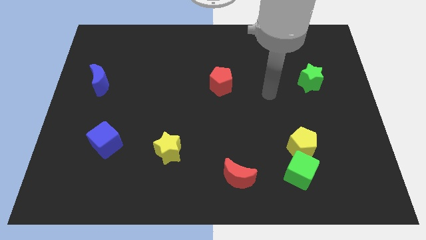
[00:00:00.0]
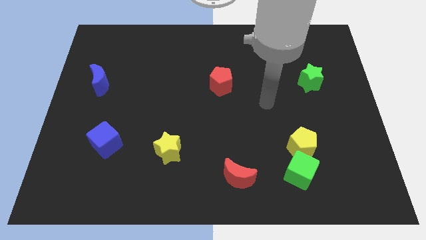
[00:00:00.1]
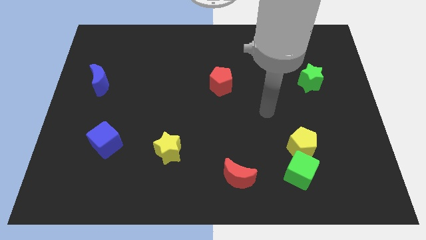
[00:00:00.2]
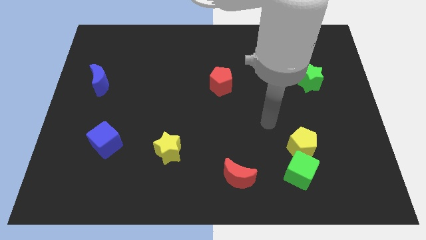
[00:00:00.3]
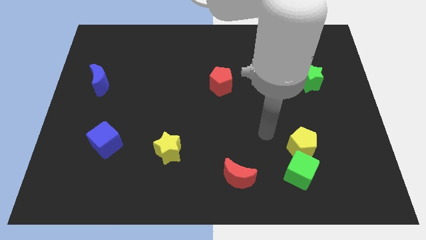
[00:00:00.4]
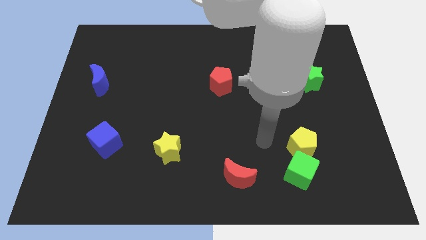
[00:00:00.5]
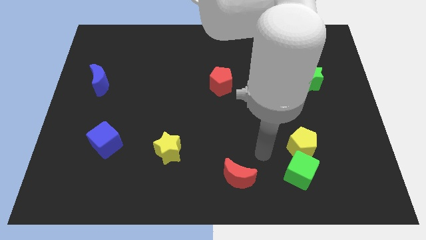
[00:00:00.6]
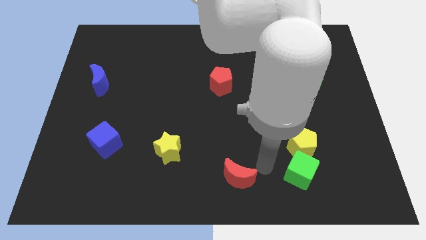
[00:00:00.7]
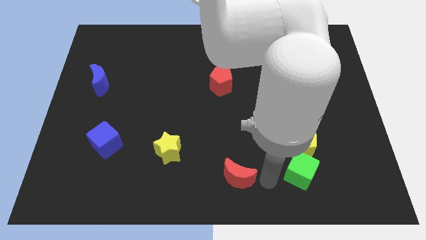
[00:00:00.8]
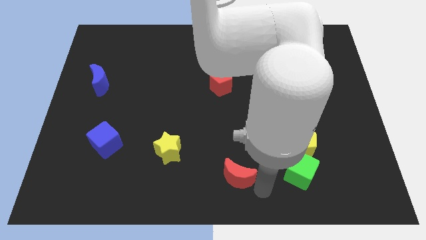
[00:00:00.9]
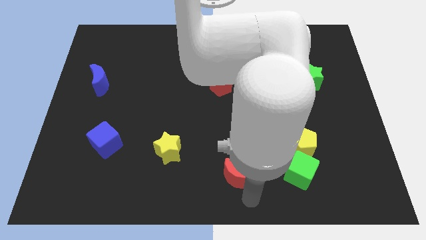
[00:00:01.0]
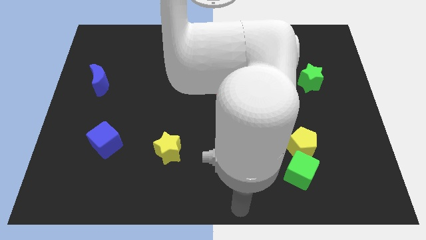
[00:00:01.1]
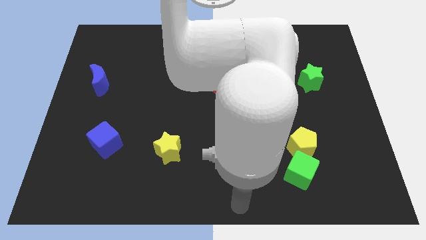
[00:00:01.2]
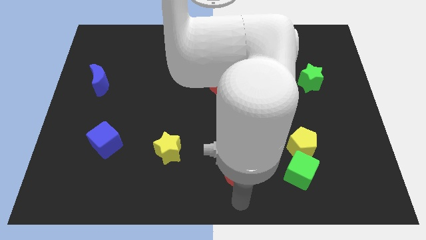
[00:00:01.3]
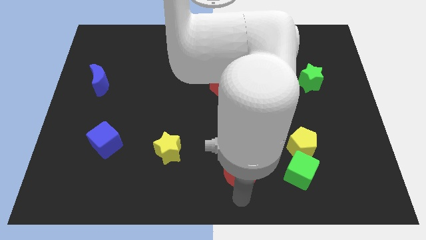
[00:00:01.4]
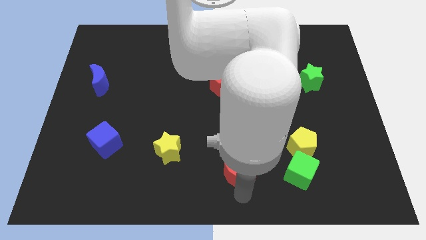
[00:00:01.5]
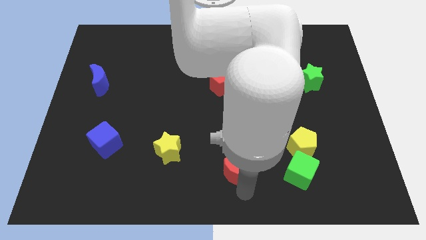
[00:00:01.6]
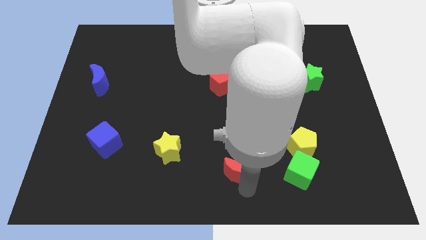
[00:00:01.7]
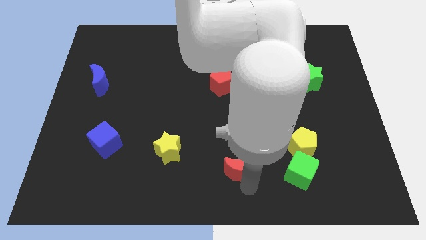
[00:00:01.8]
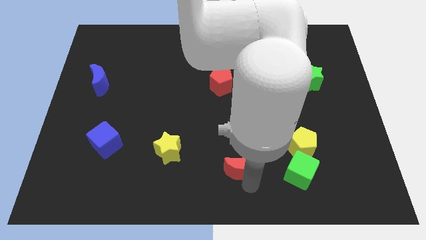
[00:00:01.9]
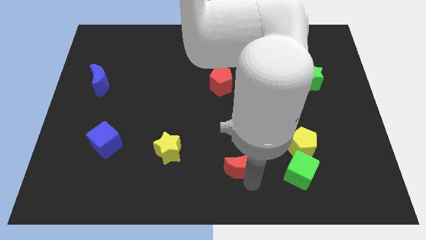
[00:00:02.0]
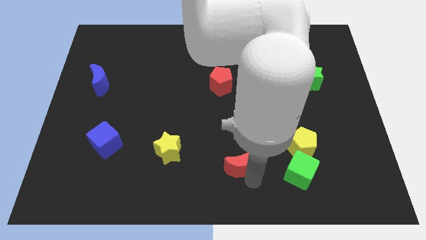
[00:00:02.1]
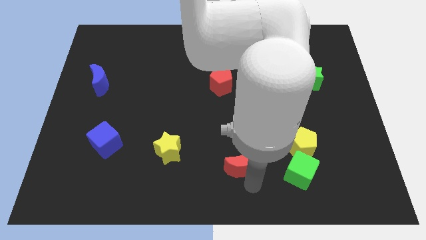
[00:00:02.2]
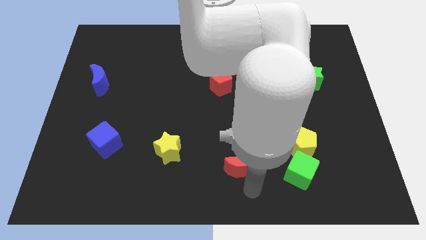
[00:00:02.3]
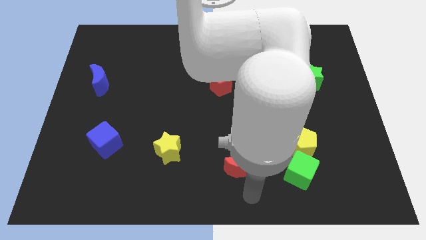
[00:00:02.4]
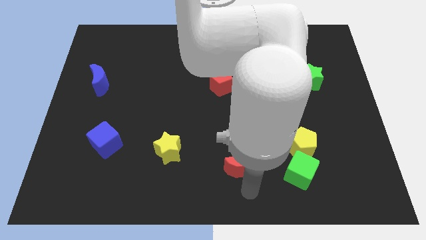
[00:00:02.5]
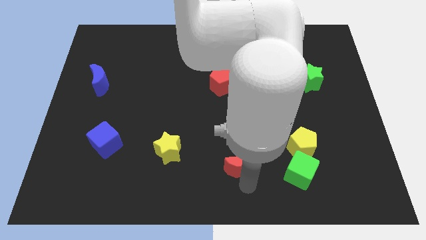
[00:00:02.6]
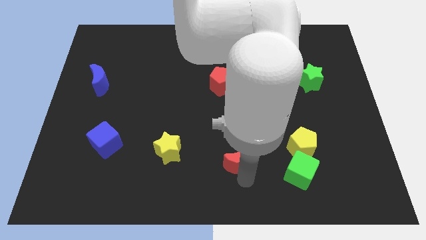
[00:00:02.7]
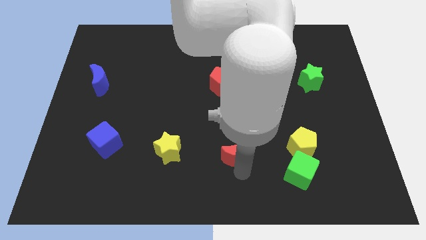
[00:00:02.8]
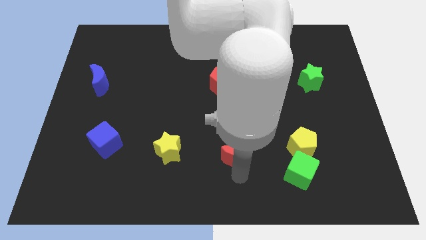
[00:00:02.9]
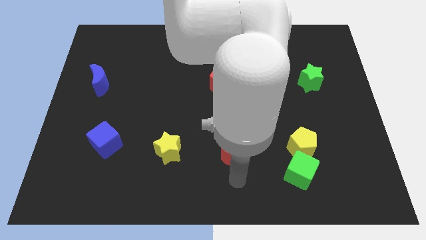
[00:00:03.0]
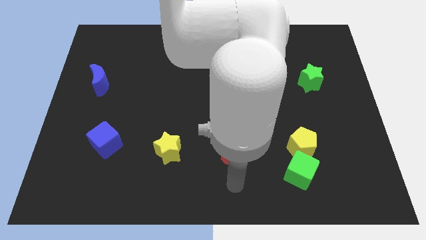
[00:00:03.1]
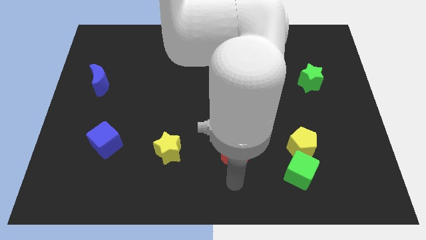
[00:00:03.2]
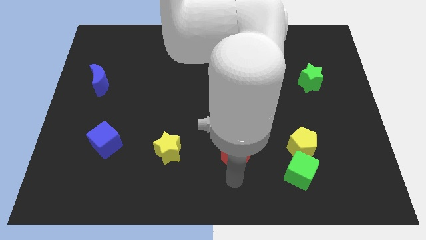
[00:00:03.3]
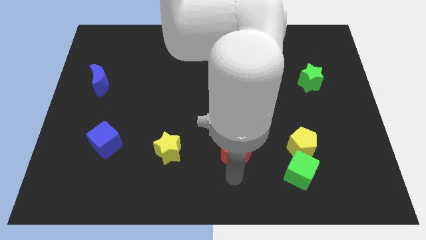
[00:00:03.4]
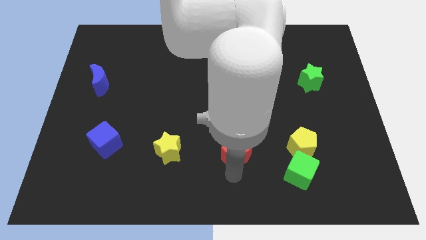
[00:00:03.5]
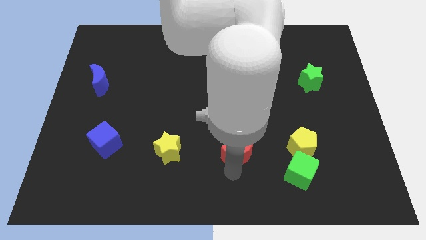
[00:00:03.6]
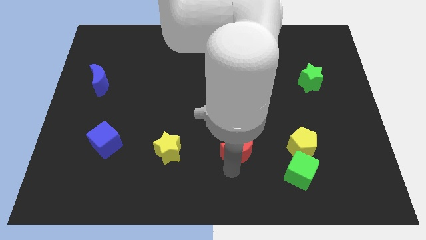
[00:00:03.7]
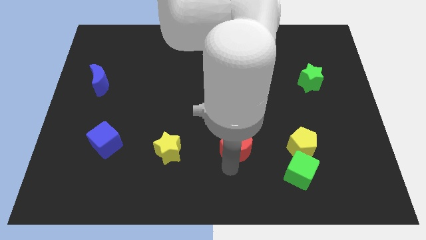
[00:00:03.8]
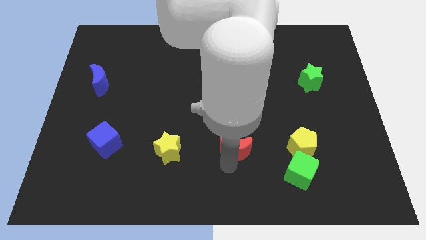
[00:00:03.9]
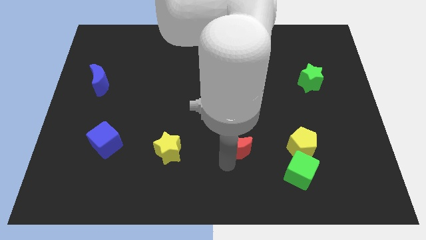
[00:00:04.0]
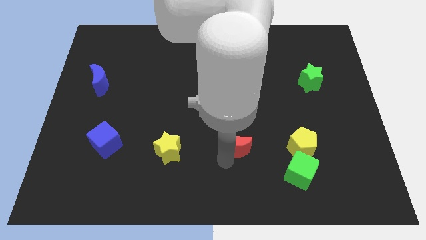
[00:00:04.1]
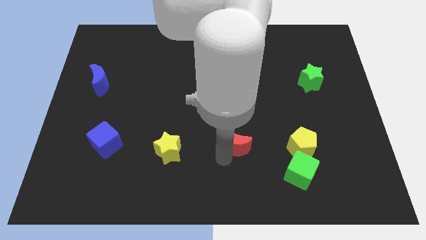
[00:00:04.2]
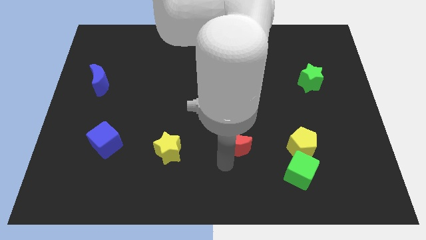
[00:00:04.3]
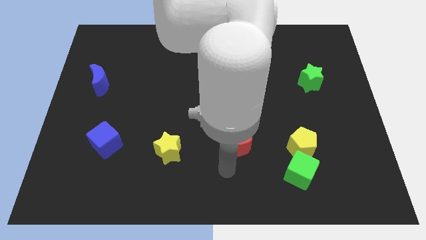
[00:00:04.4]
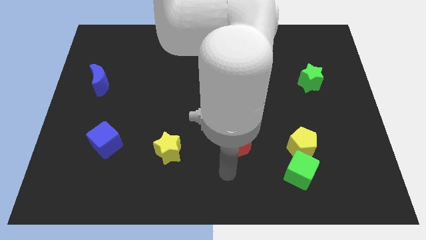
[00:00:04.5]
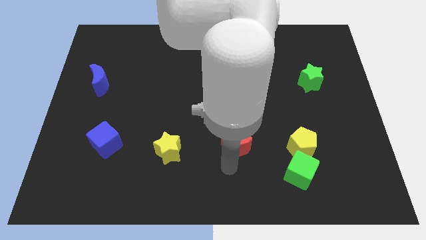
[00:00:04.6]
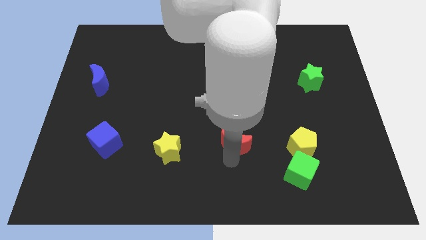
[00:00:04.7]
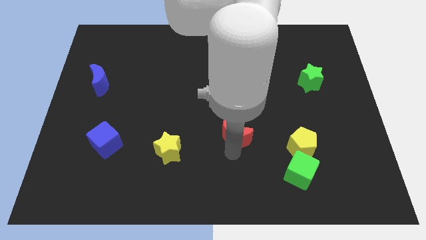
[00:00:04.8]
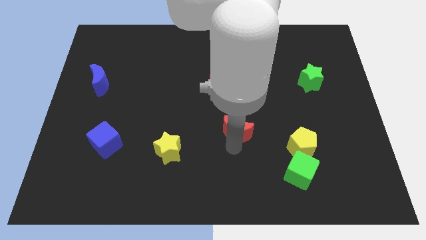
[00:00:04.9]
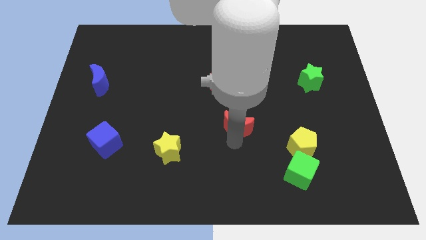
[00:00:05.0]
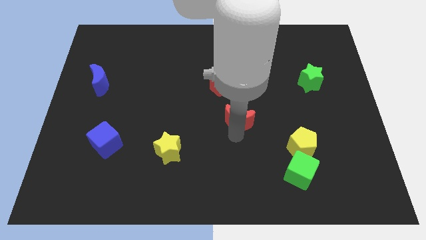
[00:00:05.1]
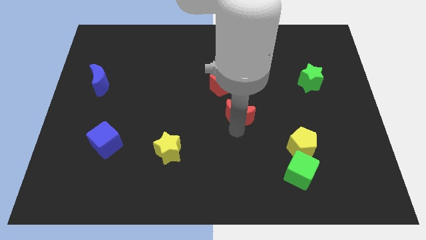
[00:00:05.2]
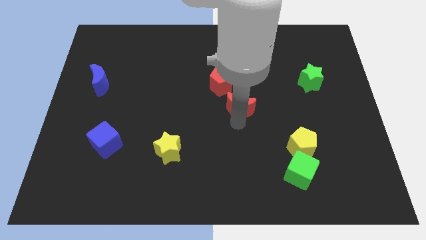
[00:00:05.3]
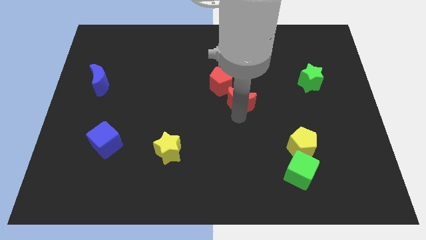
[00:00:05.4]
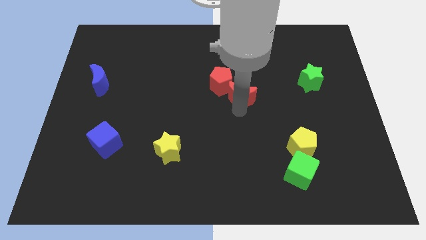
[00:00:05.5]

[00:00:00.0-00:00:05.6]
push the red moon up

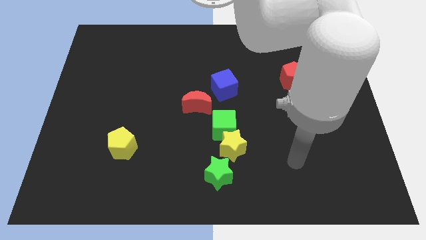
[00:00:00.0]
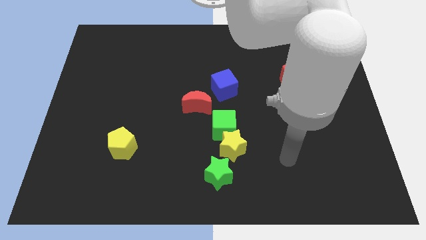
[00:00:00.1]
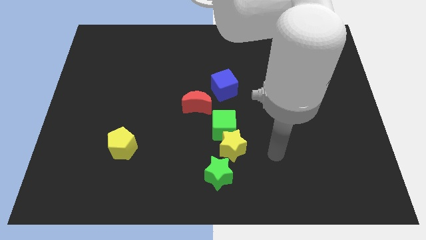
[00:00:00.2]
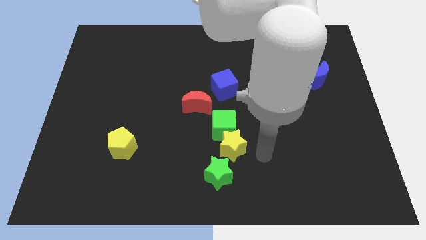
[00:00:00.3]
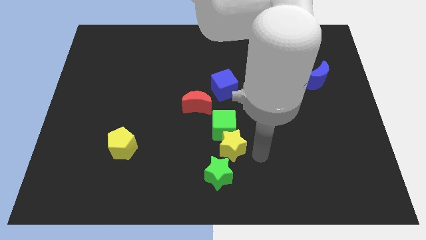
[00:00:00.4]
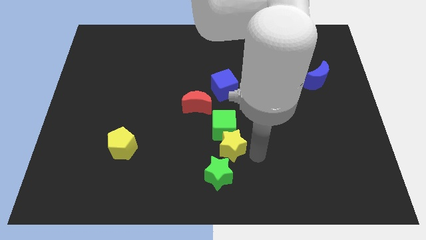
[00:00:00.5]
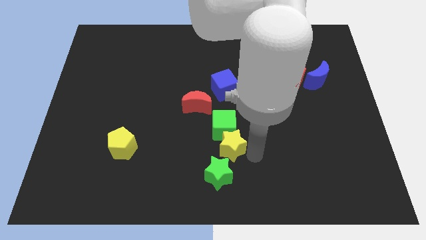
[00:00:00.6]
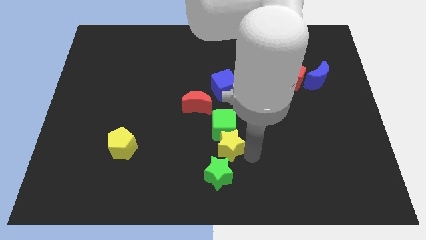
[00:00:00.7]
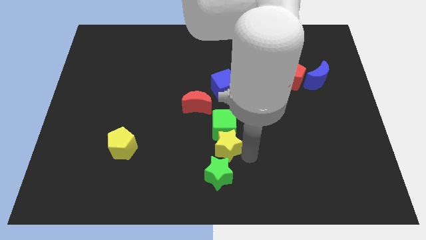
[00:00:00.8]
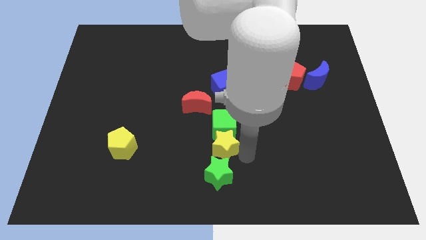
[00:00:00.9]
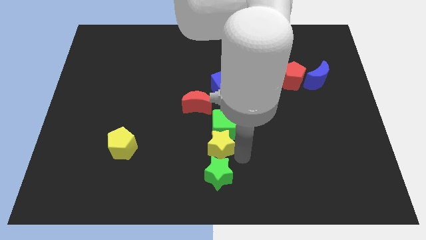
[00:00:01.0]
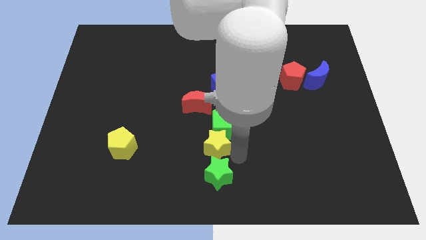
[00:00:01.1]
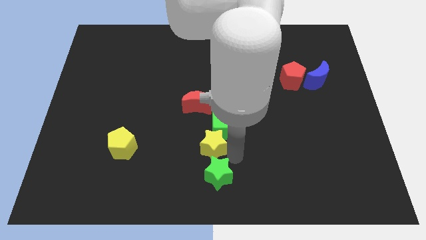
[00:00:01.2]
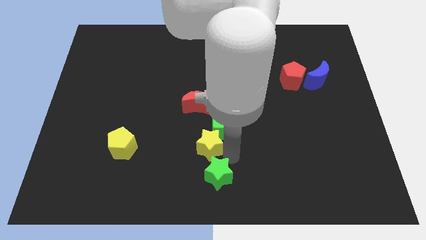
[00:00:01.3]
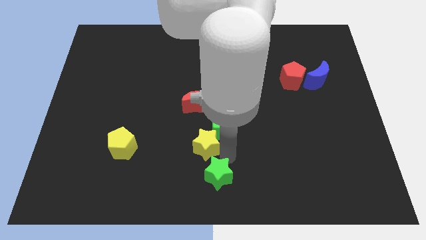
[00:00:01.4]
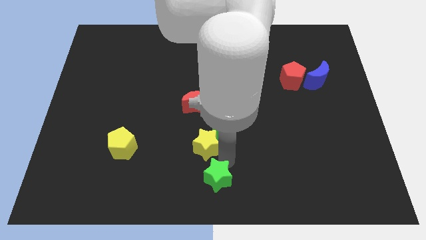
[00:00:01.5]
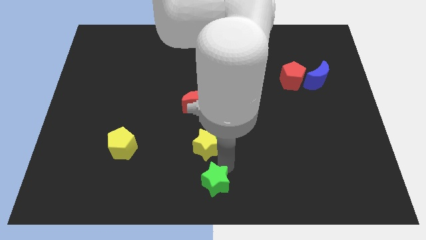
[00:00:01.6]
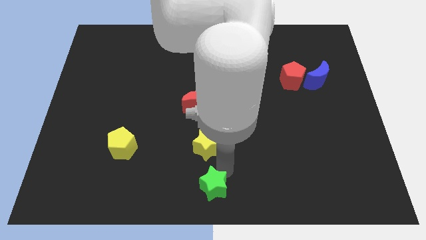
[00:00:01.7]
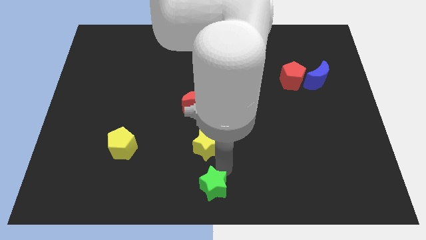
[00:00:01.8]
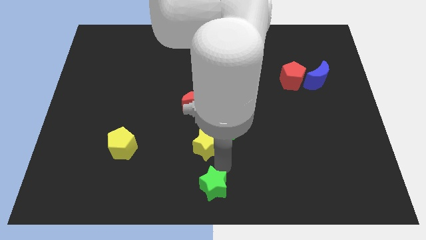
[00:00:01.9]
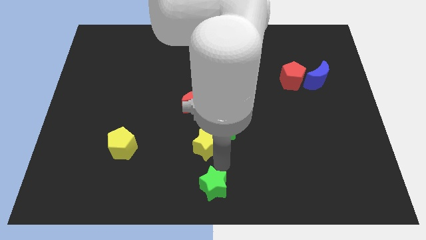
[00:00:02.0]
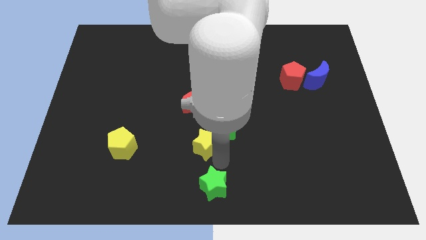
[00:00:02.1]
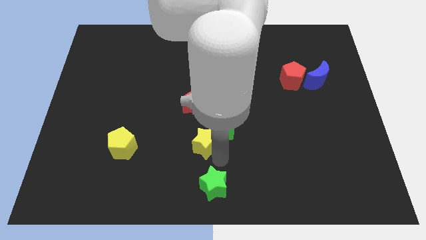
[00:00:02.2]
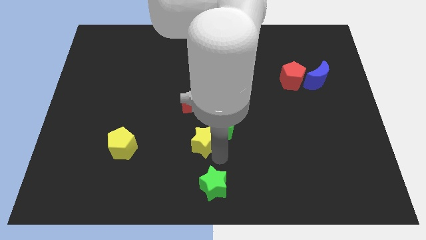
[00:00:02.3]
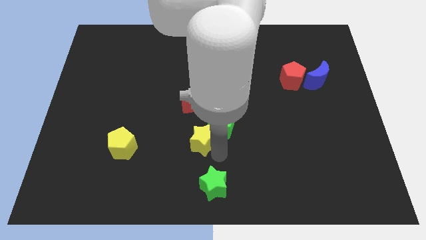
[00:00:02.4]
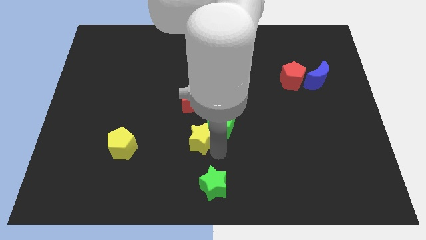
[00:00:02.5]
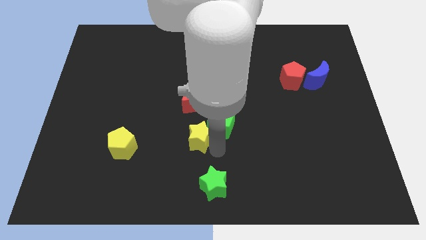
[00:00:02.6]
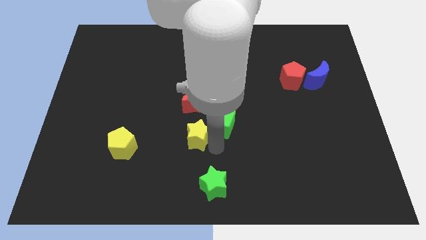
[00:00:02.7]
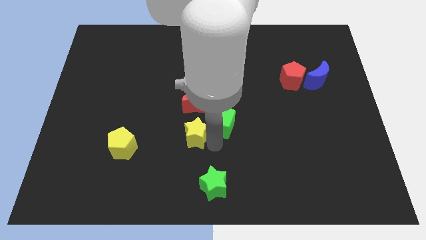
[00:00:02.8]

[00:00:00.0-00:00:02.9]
slightly move the yellow star diagonally up and left
